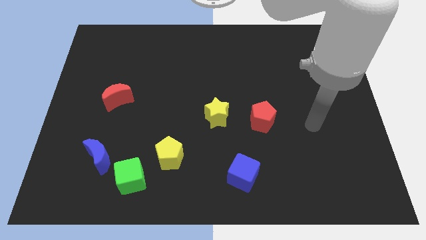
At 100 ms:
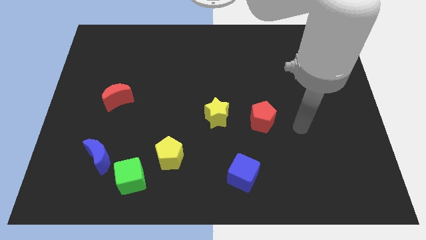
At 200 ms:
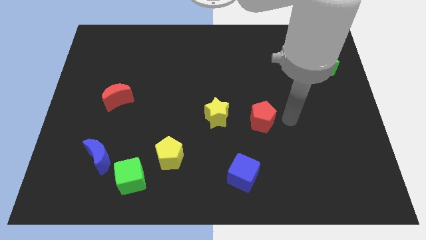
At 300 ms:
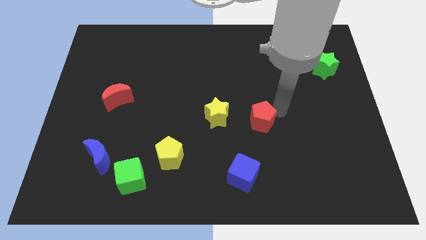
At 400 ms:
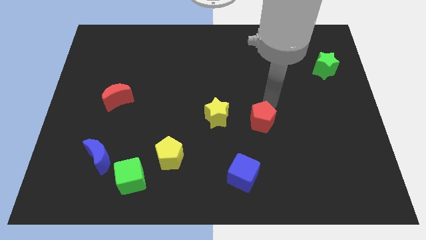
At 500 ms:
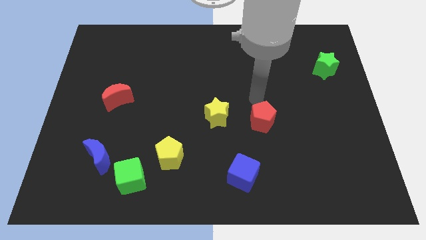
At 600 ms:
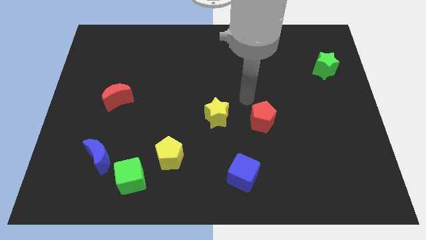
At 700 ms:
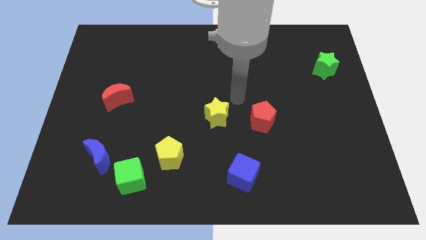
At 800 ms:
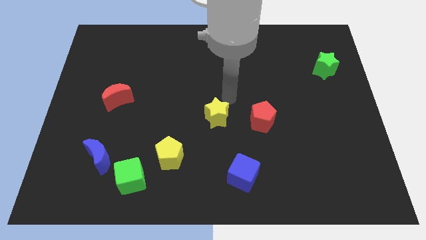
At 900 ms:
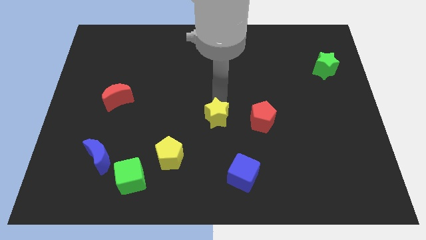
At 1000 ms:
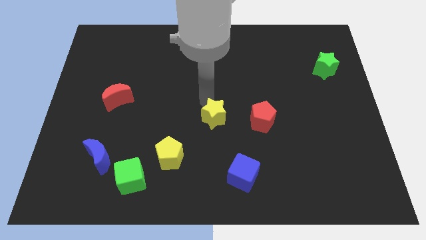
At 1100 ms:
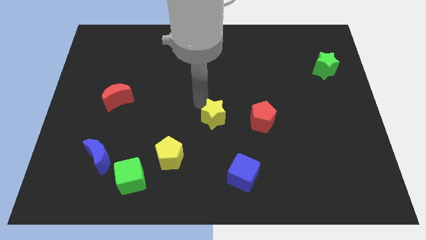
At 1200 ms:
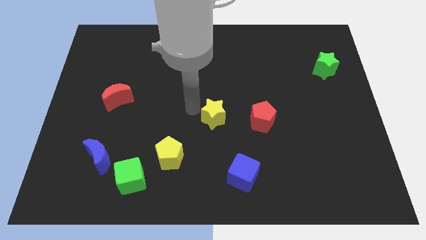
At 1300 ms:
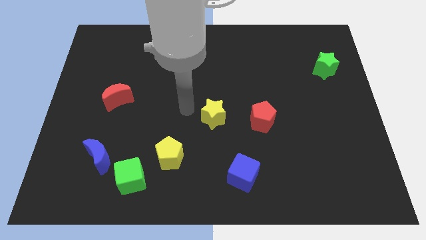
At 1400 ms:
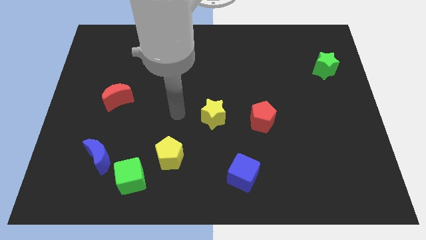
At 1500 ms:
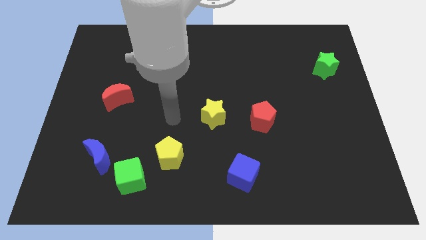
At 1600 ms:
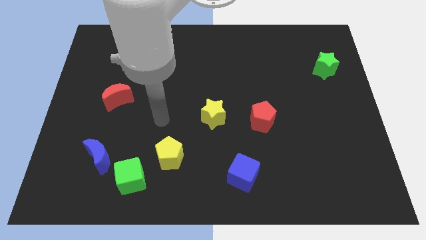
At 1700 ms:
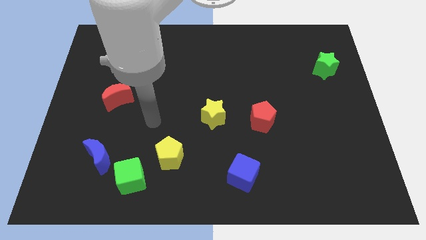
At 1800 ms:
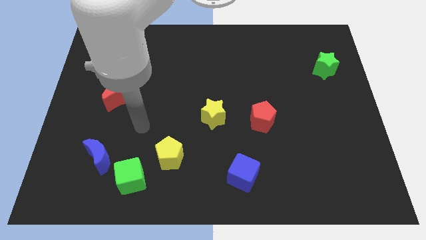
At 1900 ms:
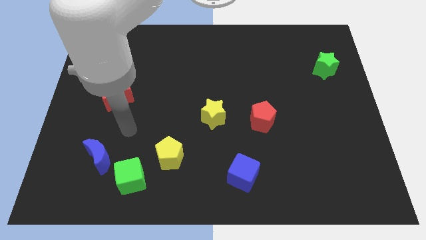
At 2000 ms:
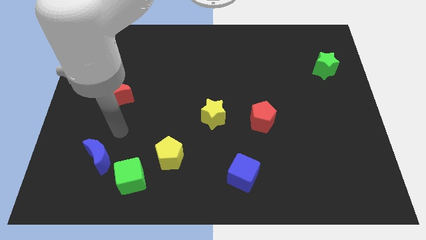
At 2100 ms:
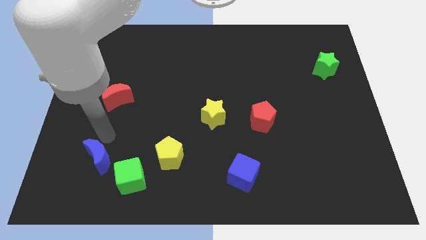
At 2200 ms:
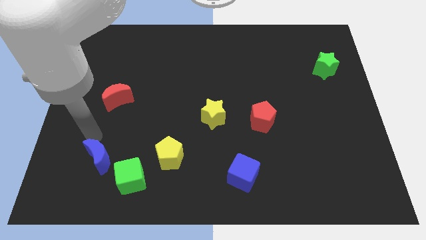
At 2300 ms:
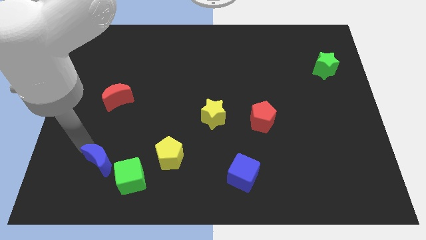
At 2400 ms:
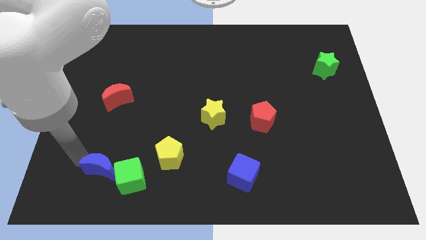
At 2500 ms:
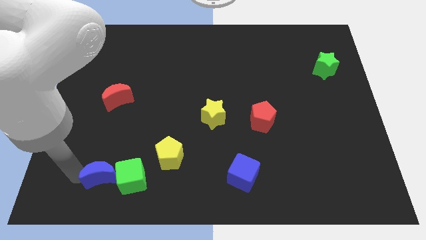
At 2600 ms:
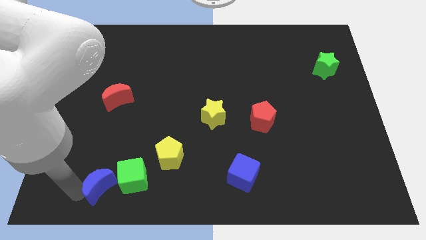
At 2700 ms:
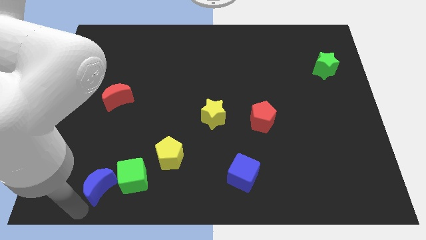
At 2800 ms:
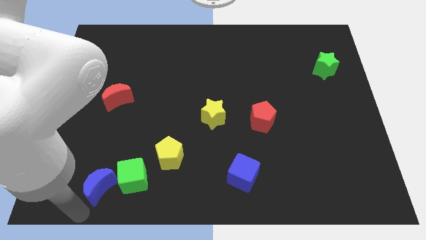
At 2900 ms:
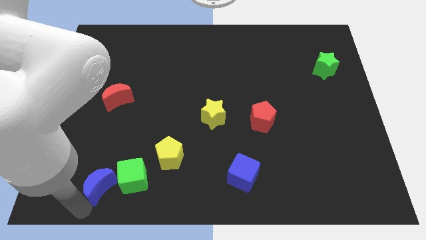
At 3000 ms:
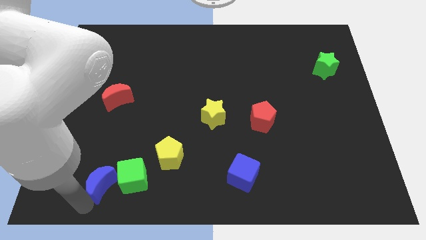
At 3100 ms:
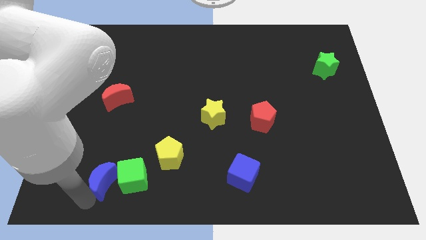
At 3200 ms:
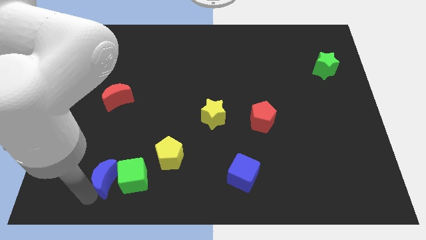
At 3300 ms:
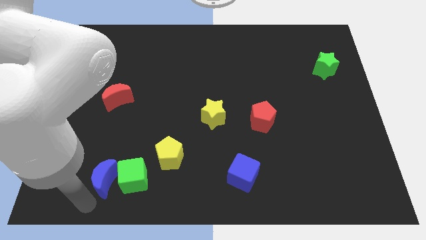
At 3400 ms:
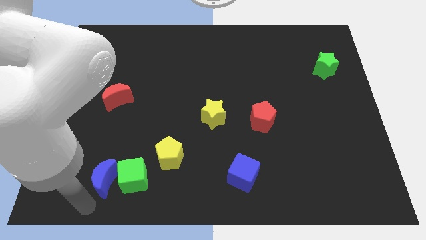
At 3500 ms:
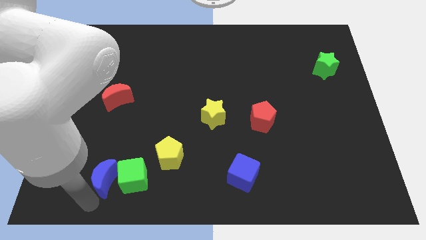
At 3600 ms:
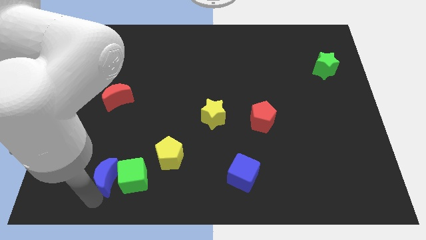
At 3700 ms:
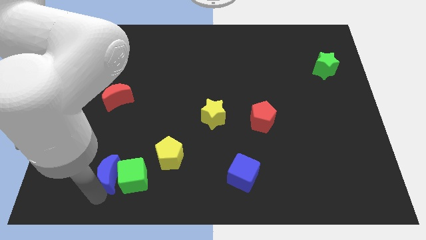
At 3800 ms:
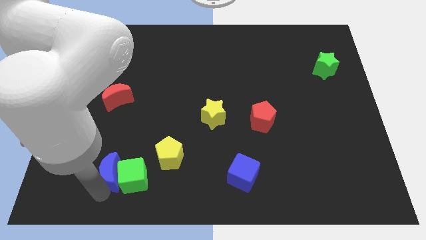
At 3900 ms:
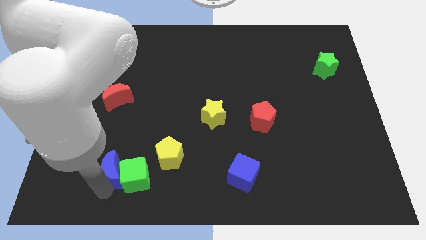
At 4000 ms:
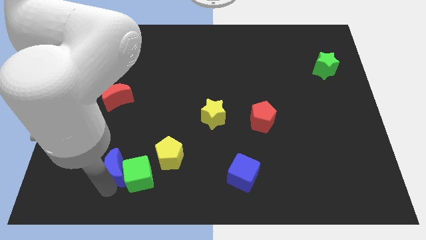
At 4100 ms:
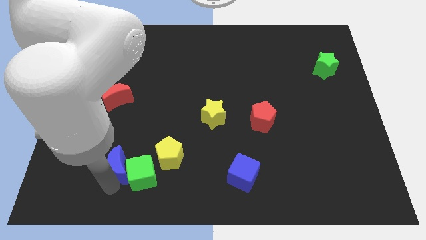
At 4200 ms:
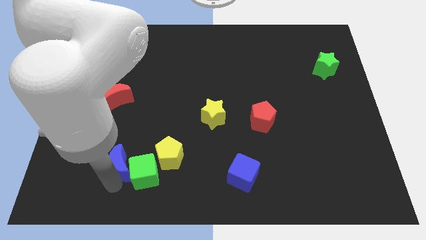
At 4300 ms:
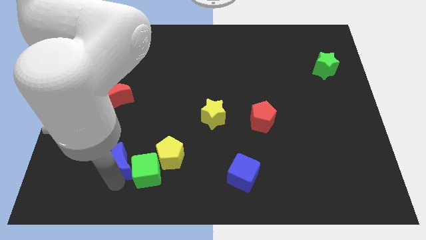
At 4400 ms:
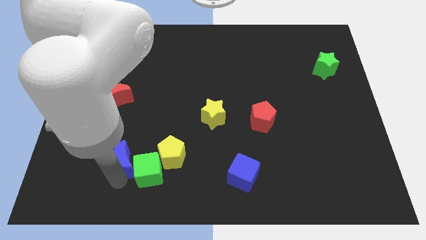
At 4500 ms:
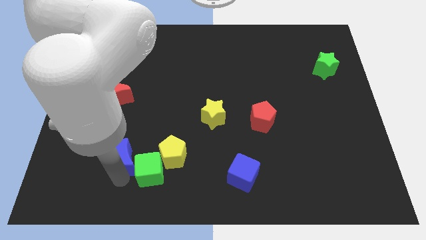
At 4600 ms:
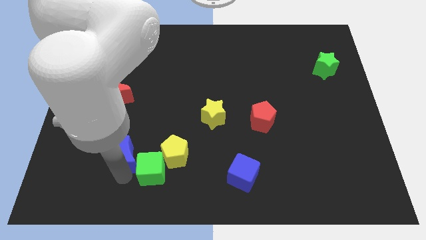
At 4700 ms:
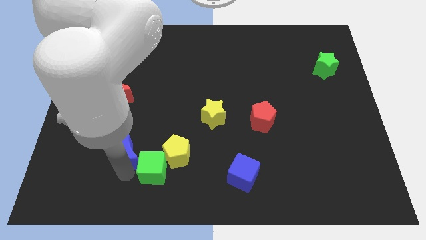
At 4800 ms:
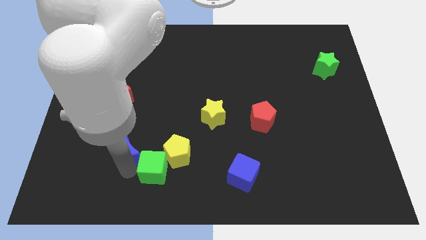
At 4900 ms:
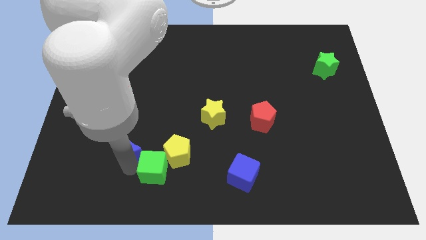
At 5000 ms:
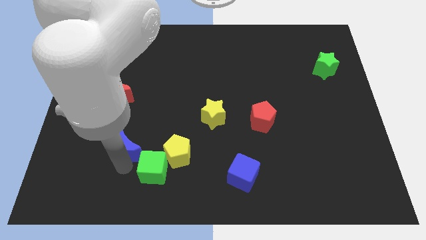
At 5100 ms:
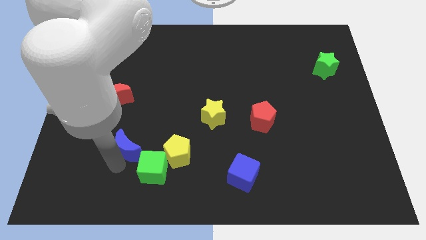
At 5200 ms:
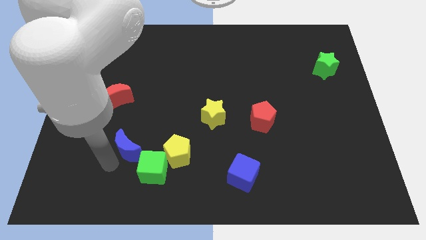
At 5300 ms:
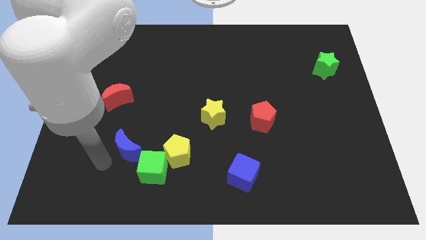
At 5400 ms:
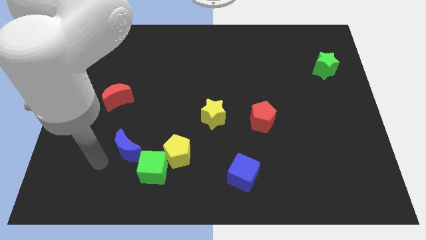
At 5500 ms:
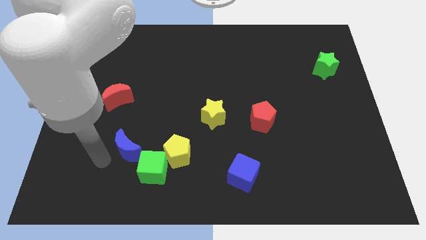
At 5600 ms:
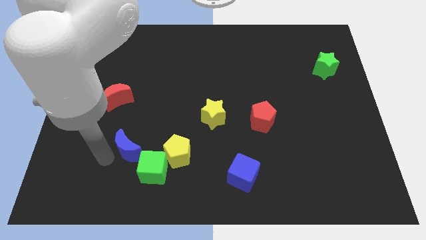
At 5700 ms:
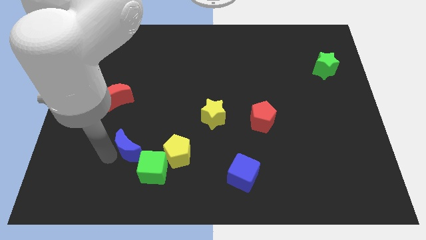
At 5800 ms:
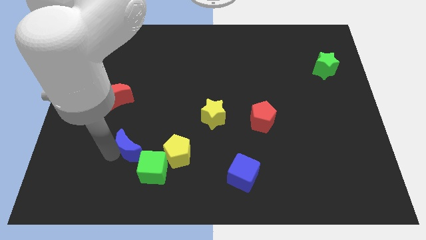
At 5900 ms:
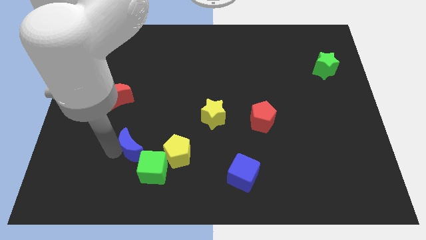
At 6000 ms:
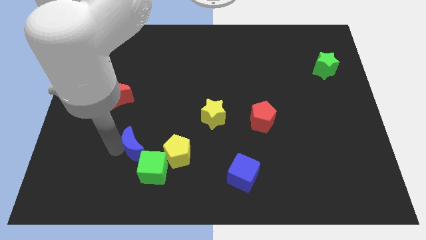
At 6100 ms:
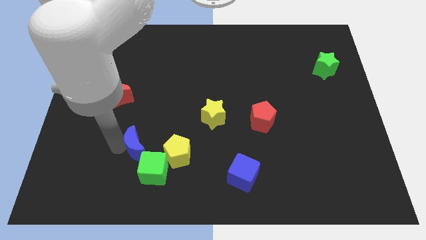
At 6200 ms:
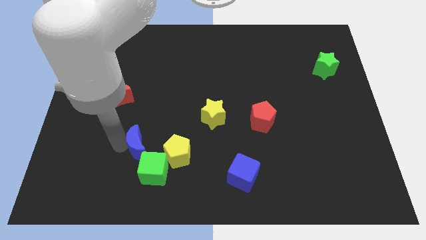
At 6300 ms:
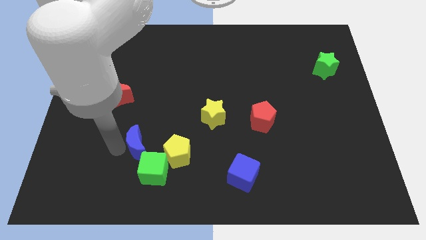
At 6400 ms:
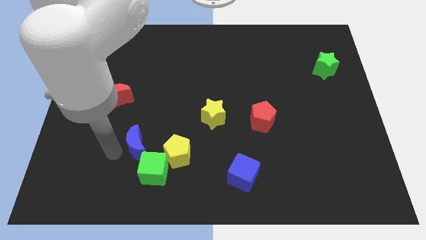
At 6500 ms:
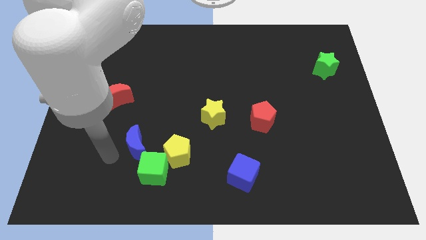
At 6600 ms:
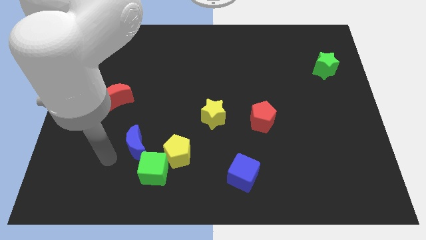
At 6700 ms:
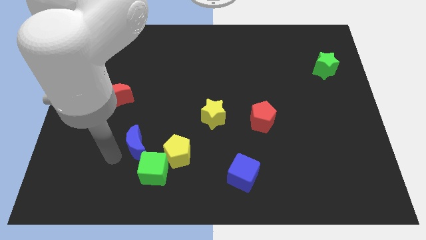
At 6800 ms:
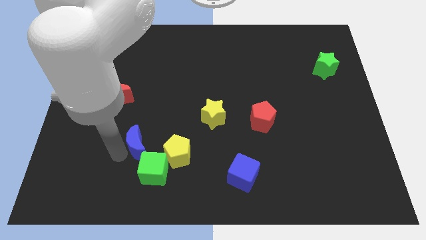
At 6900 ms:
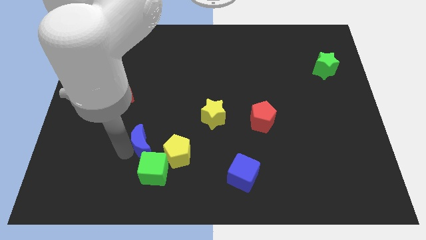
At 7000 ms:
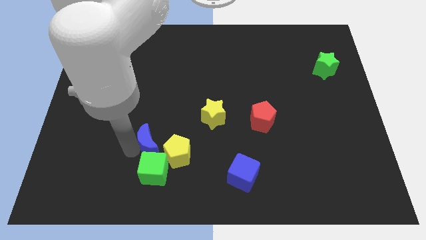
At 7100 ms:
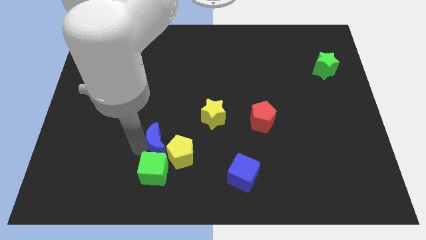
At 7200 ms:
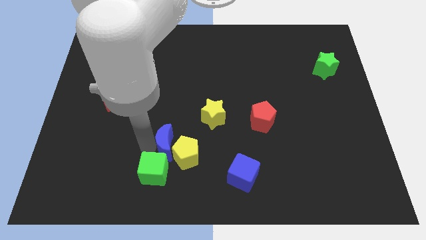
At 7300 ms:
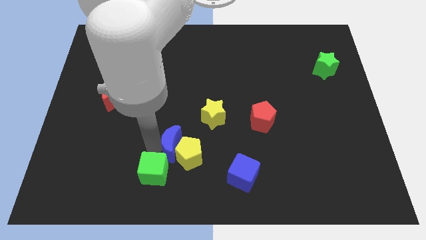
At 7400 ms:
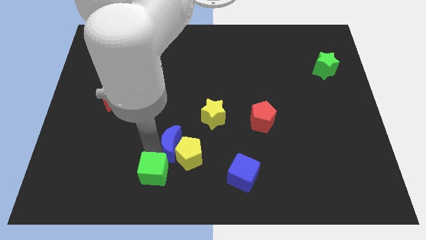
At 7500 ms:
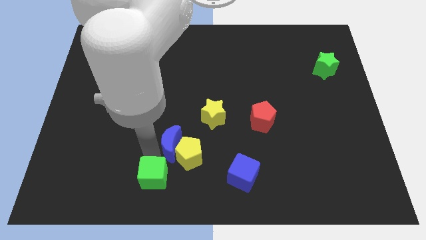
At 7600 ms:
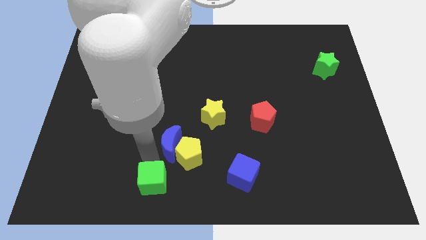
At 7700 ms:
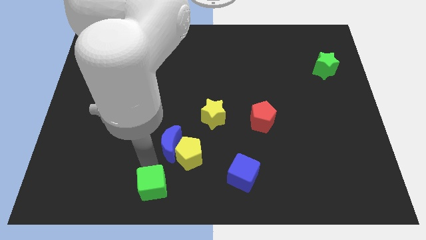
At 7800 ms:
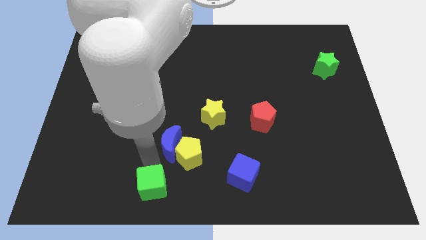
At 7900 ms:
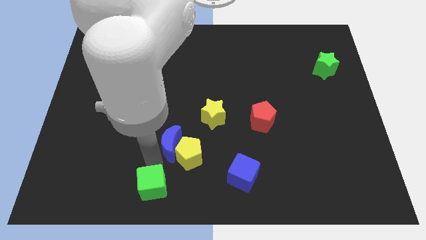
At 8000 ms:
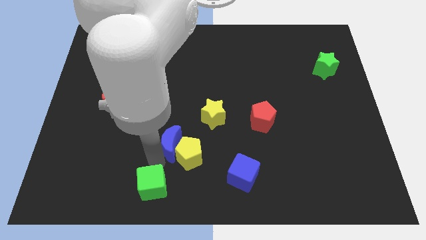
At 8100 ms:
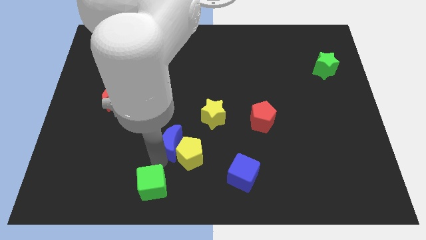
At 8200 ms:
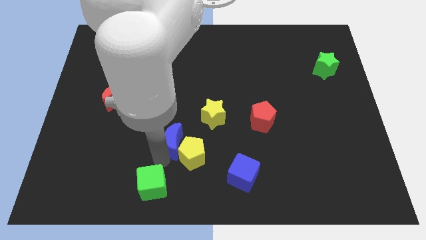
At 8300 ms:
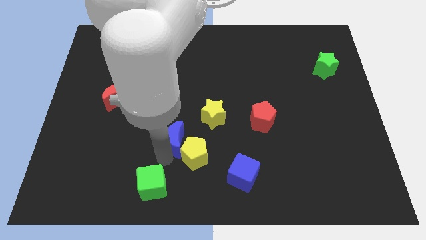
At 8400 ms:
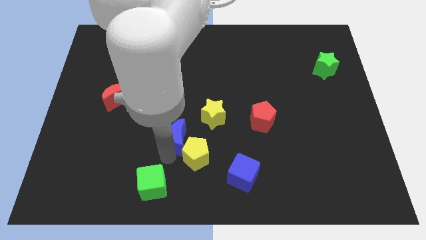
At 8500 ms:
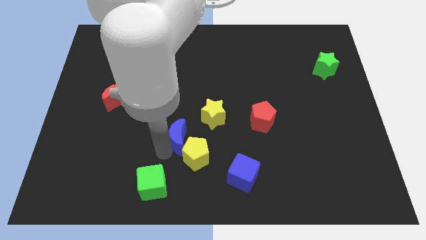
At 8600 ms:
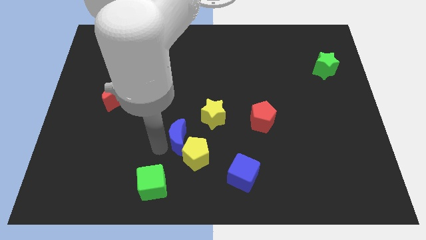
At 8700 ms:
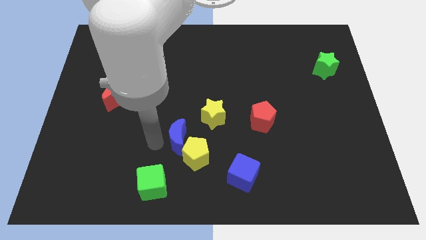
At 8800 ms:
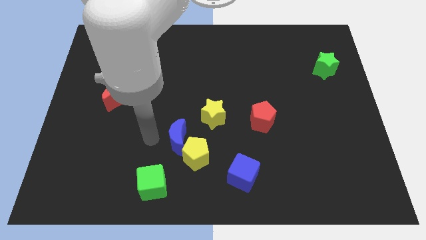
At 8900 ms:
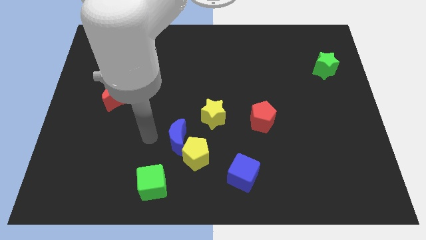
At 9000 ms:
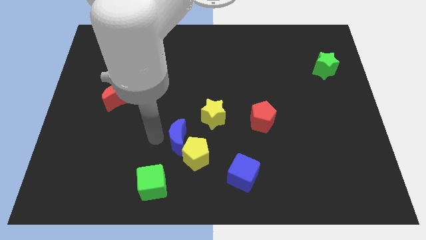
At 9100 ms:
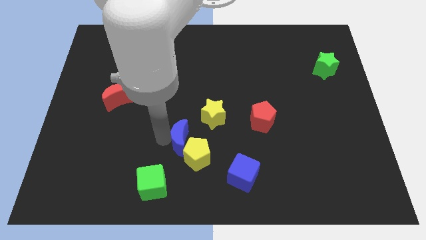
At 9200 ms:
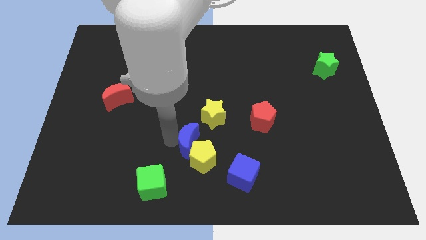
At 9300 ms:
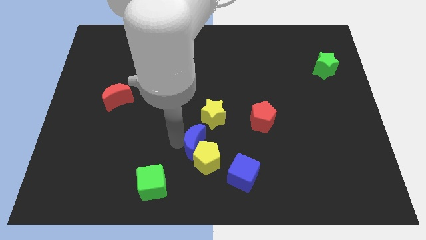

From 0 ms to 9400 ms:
put the blue moon to the top left side of the blue cube
